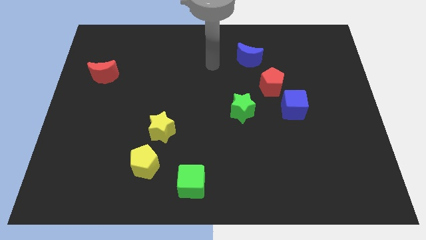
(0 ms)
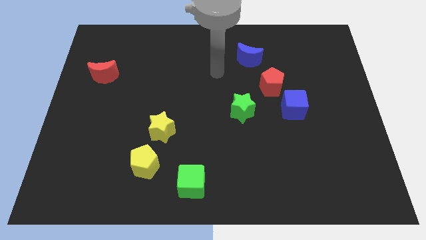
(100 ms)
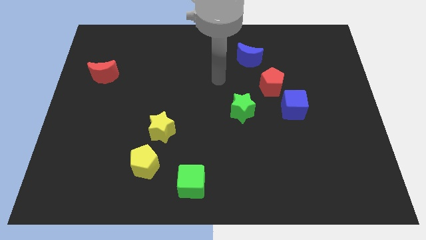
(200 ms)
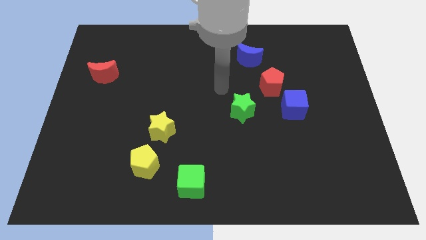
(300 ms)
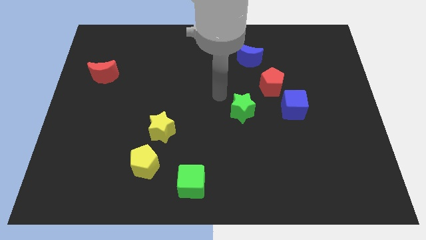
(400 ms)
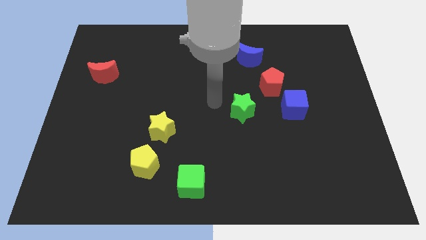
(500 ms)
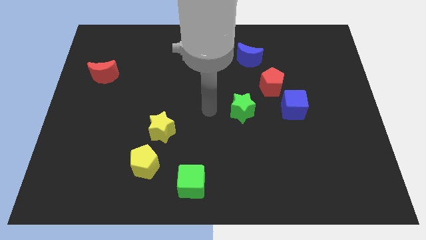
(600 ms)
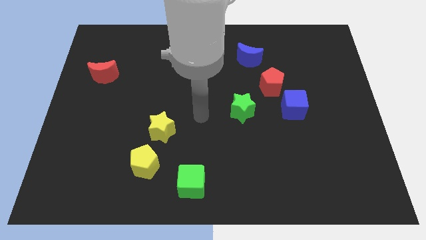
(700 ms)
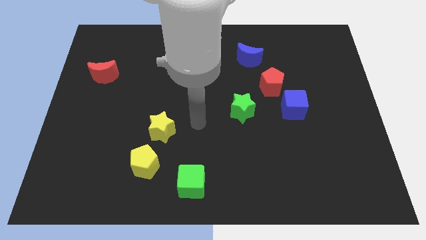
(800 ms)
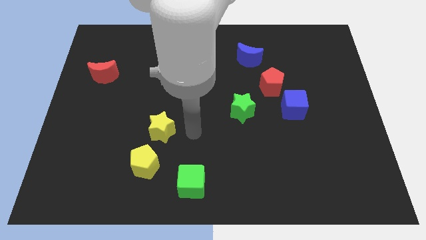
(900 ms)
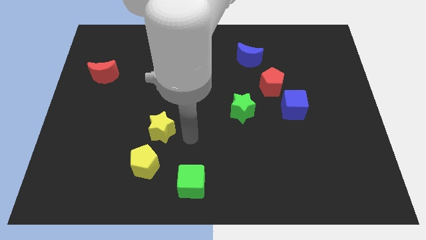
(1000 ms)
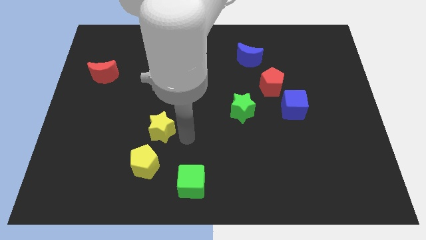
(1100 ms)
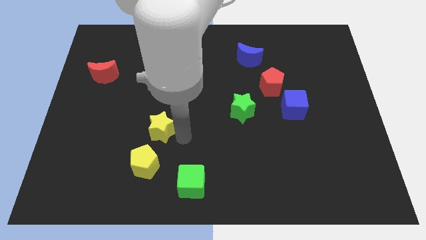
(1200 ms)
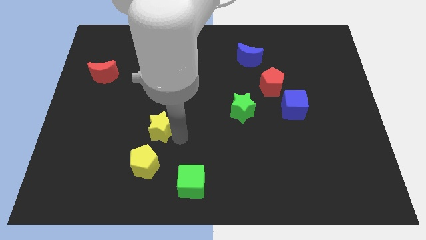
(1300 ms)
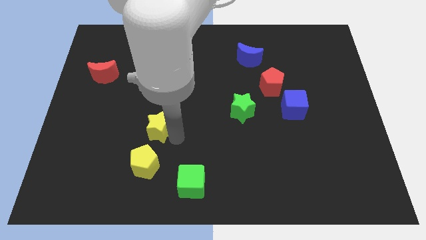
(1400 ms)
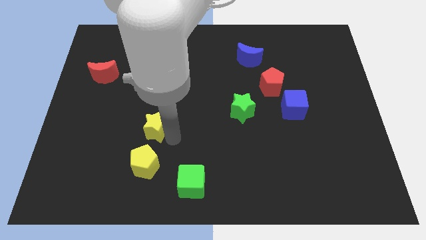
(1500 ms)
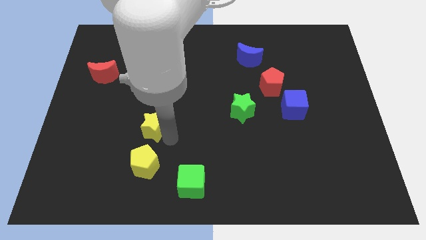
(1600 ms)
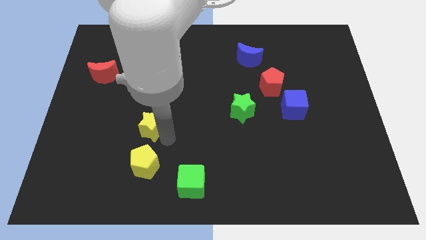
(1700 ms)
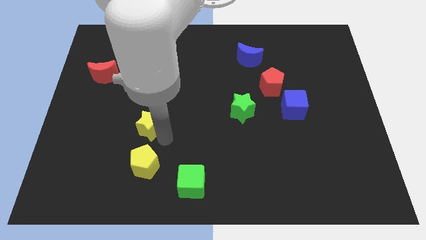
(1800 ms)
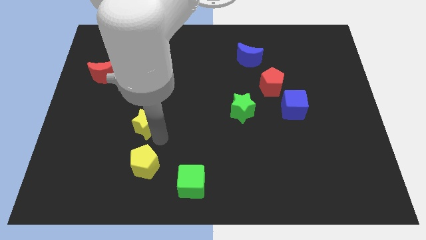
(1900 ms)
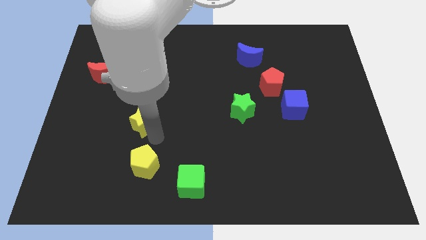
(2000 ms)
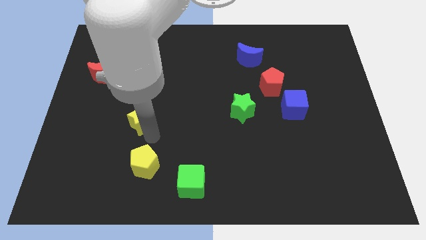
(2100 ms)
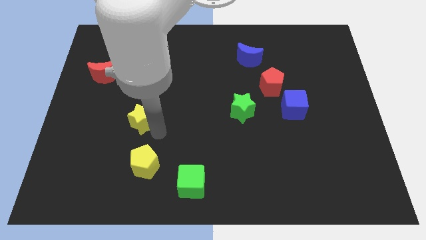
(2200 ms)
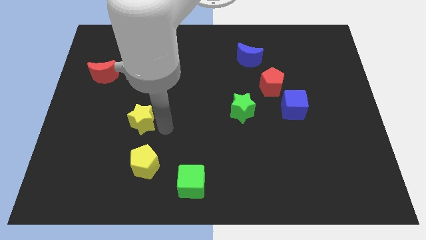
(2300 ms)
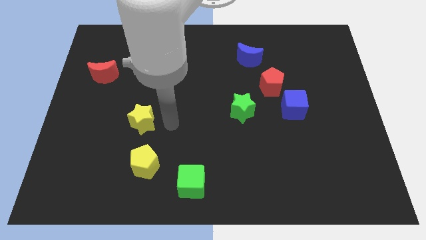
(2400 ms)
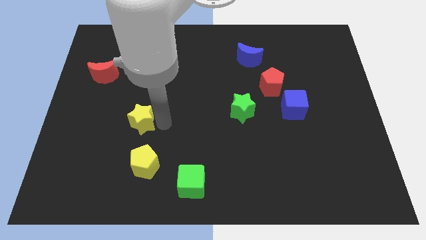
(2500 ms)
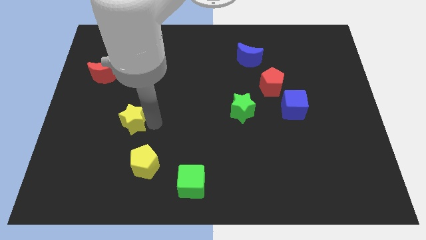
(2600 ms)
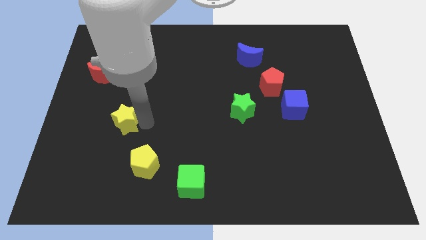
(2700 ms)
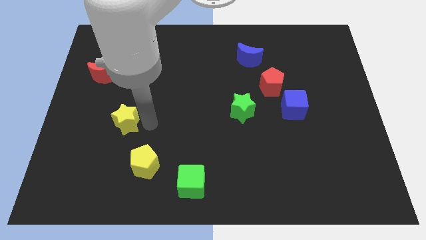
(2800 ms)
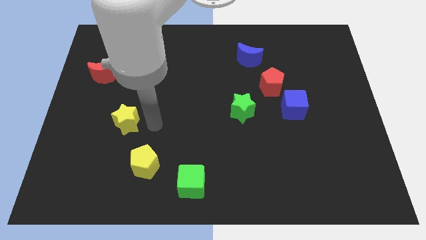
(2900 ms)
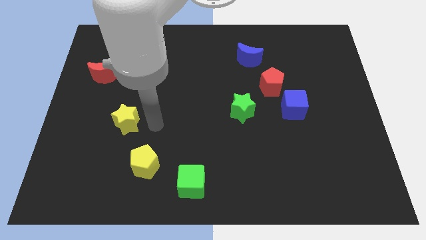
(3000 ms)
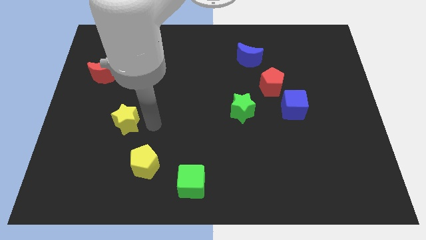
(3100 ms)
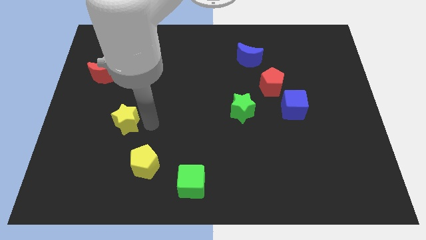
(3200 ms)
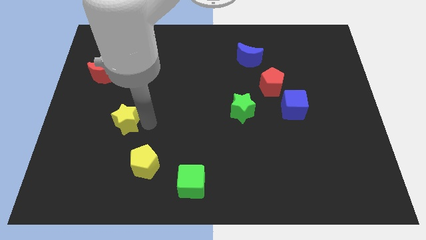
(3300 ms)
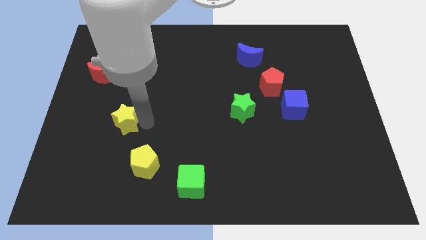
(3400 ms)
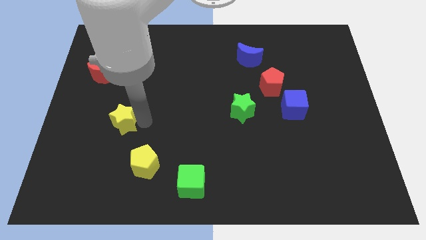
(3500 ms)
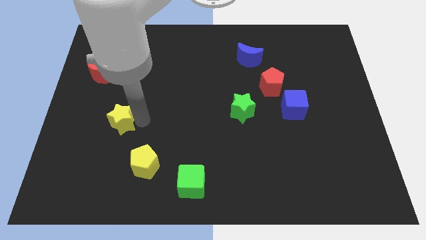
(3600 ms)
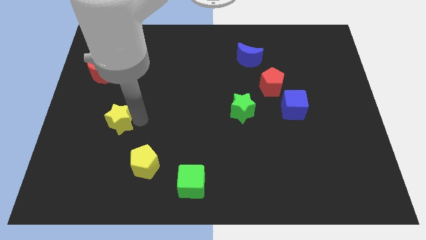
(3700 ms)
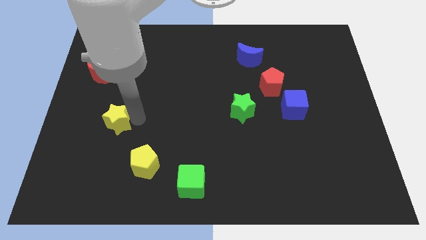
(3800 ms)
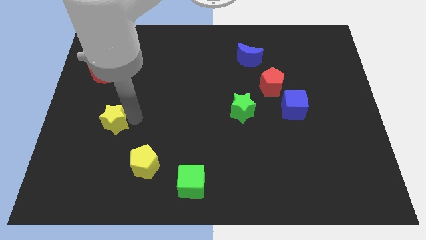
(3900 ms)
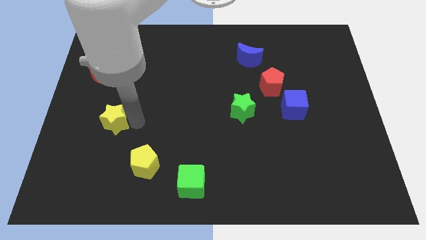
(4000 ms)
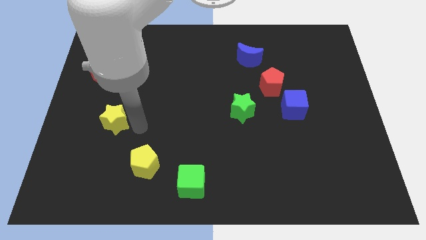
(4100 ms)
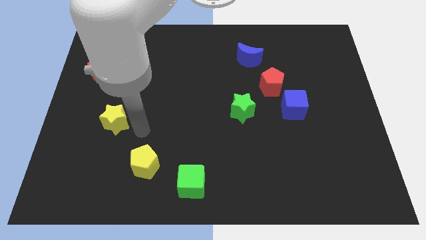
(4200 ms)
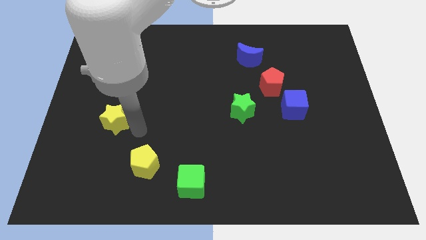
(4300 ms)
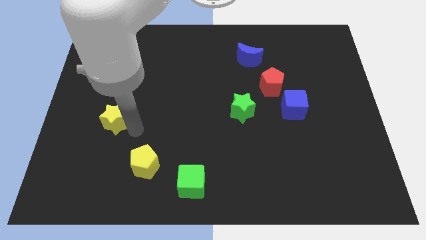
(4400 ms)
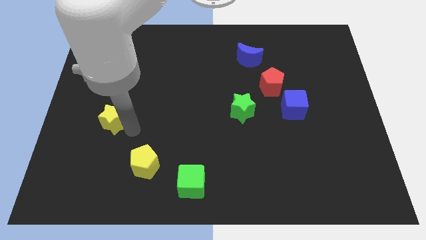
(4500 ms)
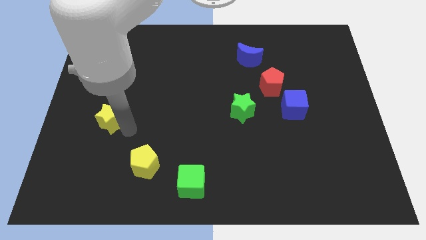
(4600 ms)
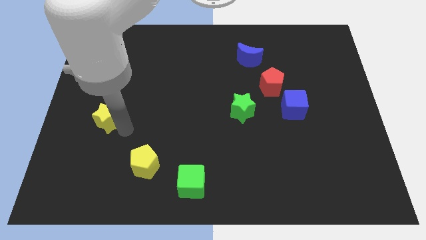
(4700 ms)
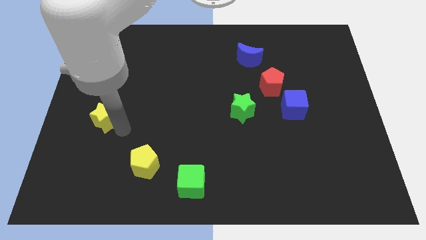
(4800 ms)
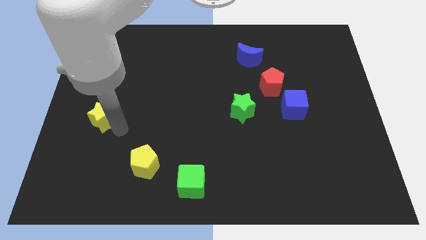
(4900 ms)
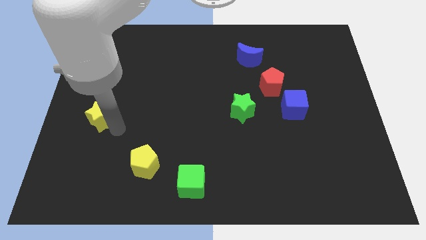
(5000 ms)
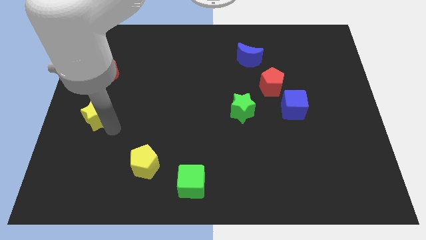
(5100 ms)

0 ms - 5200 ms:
move the yellow star to the left side

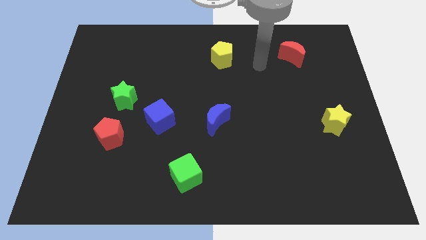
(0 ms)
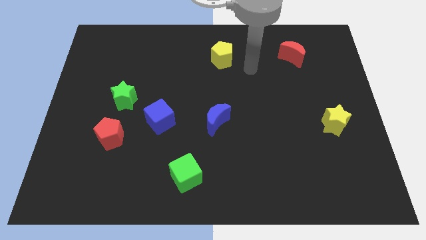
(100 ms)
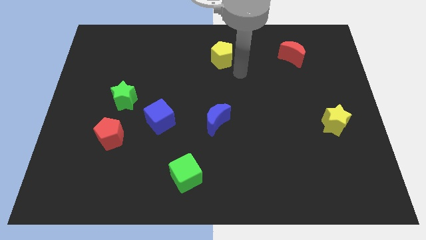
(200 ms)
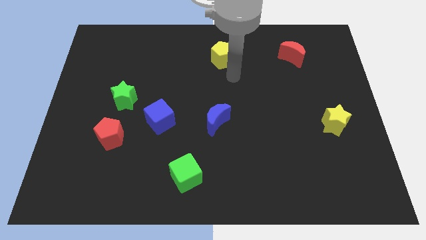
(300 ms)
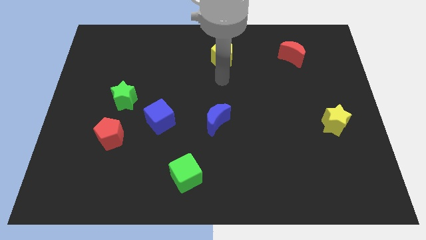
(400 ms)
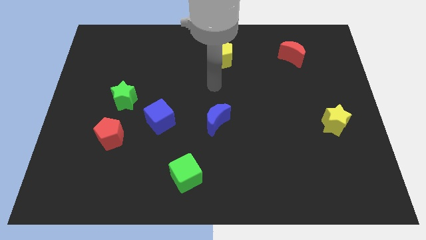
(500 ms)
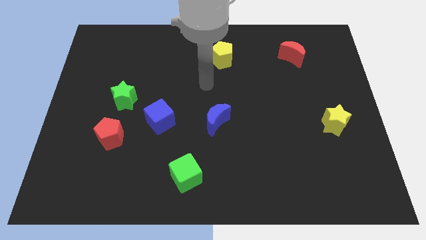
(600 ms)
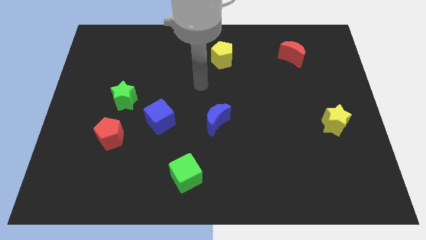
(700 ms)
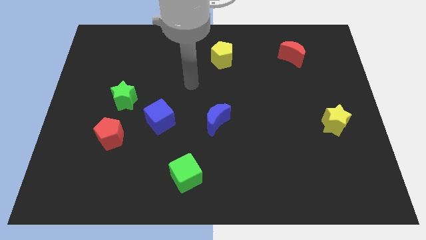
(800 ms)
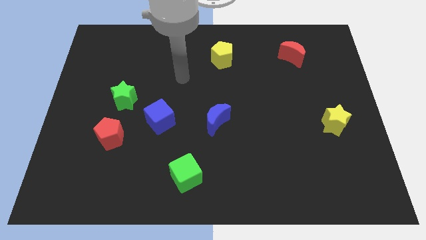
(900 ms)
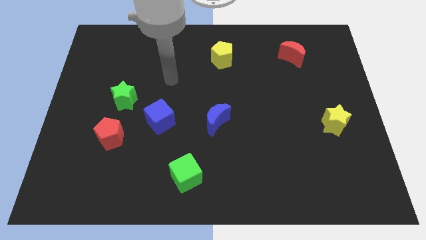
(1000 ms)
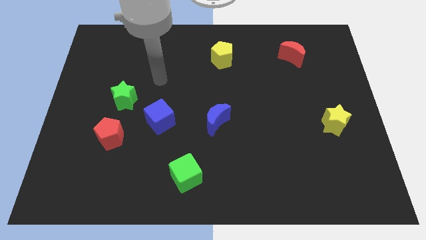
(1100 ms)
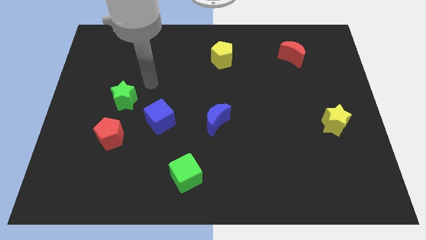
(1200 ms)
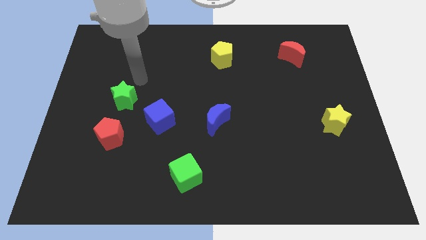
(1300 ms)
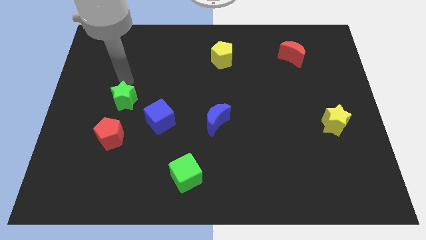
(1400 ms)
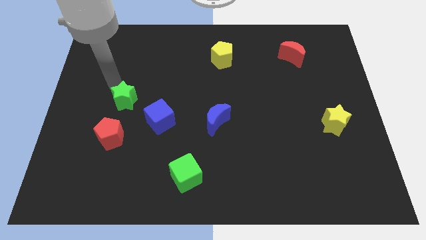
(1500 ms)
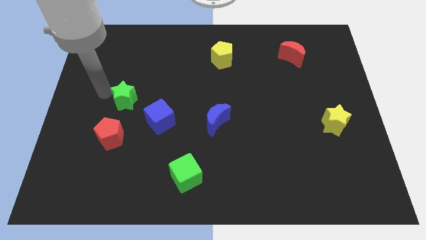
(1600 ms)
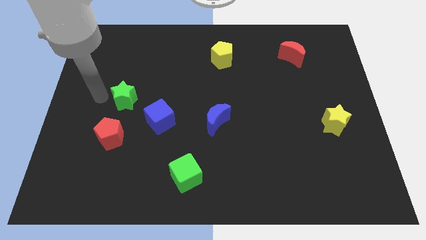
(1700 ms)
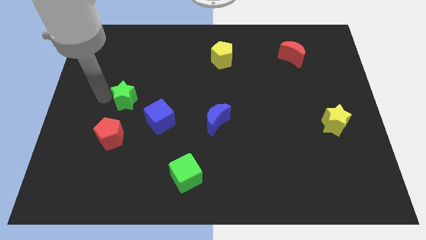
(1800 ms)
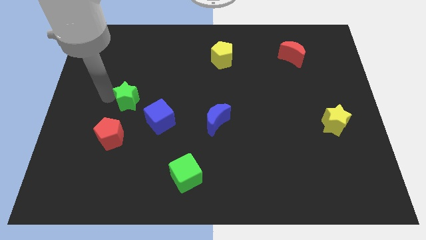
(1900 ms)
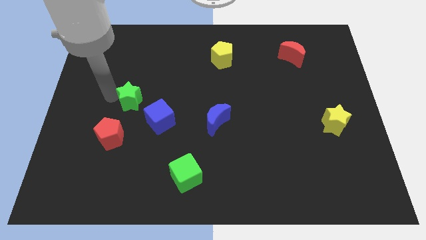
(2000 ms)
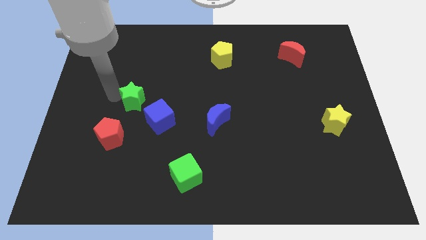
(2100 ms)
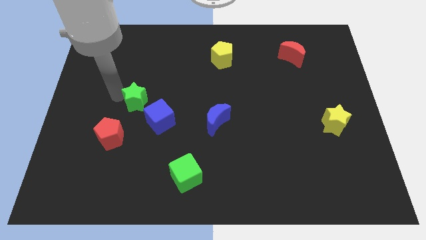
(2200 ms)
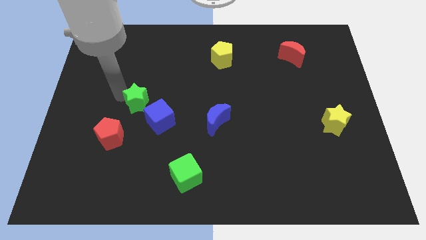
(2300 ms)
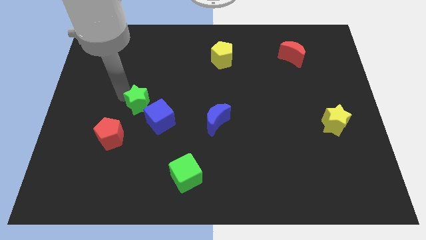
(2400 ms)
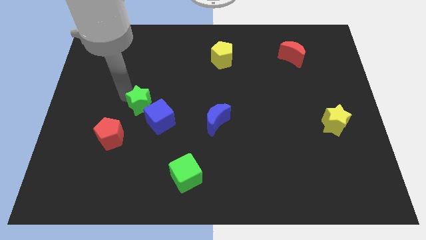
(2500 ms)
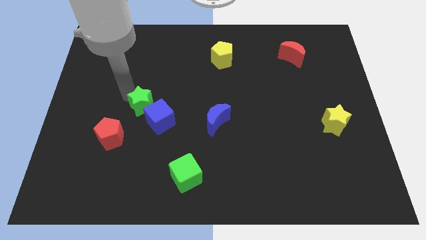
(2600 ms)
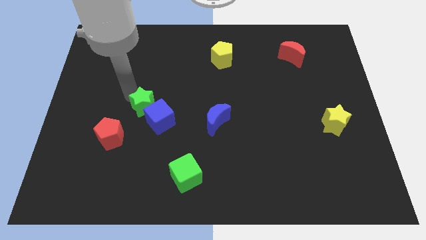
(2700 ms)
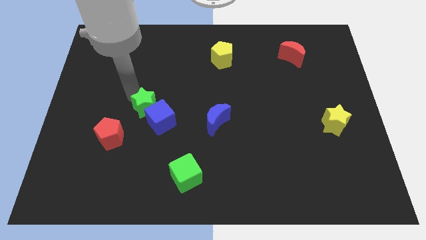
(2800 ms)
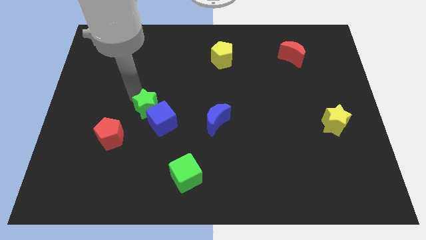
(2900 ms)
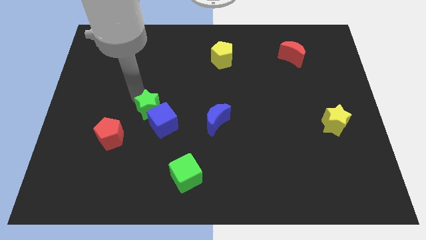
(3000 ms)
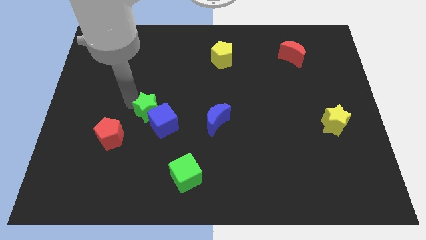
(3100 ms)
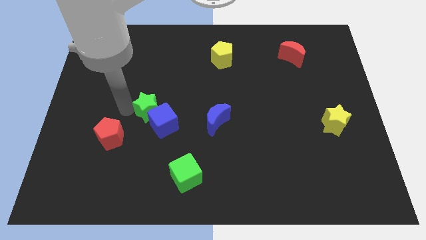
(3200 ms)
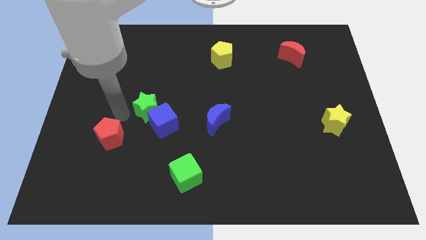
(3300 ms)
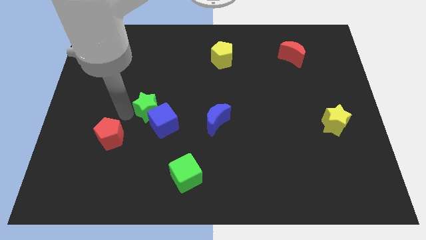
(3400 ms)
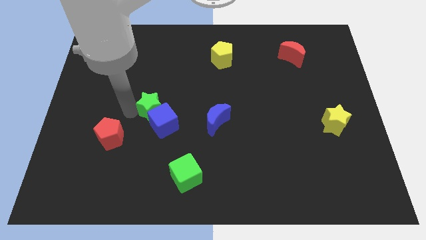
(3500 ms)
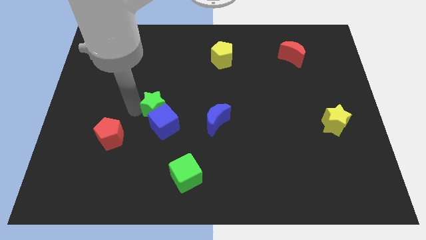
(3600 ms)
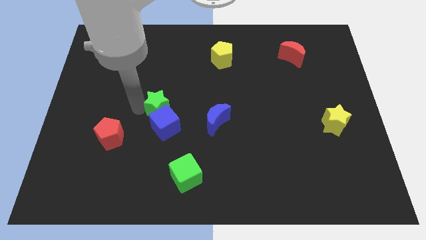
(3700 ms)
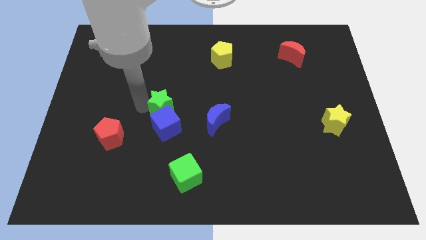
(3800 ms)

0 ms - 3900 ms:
push the green star to the middle
